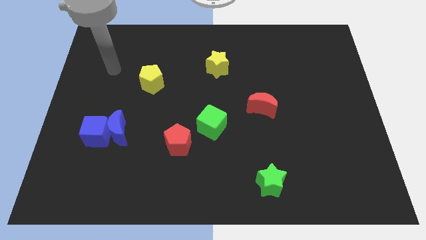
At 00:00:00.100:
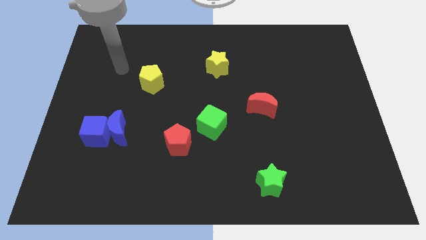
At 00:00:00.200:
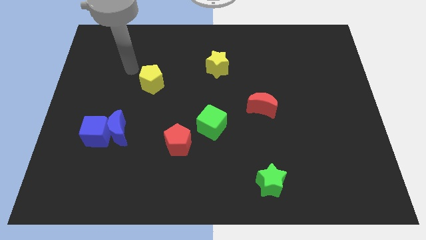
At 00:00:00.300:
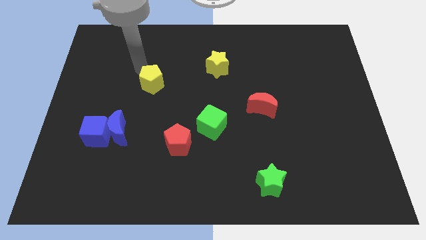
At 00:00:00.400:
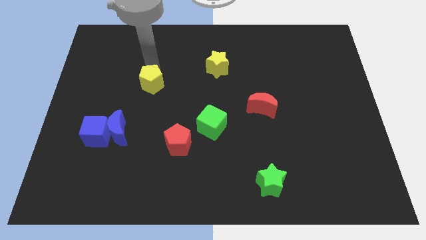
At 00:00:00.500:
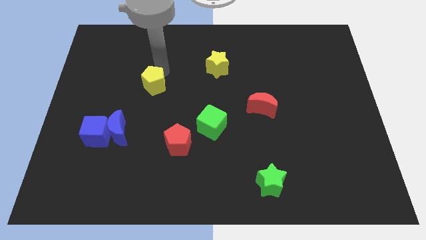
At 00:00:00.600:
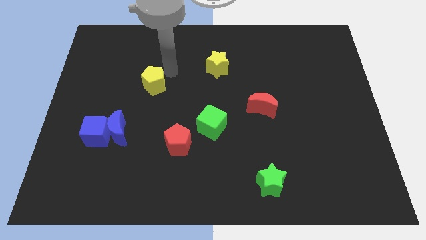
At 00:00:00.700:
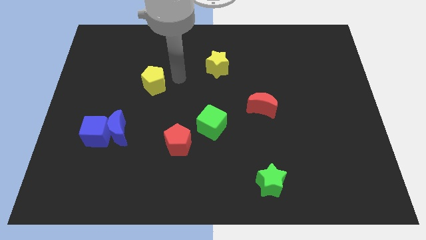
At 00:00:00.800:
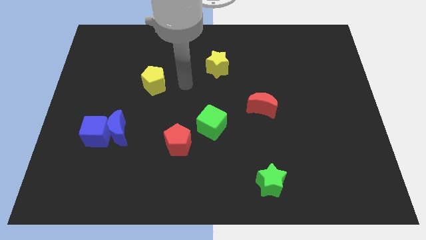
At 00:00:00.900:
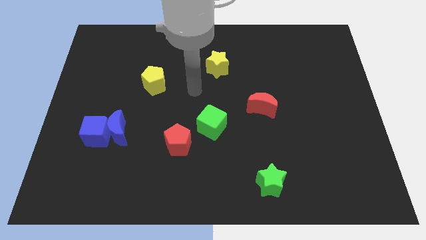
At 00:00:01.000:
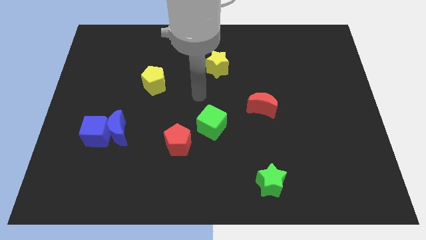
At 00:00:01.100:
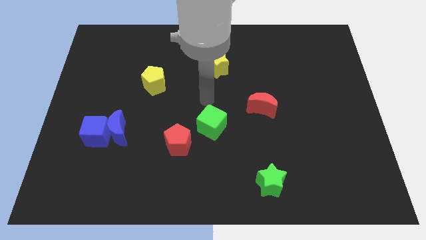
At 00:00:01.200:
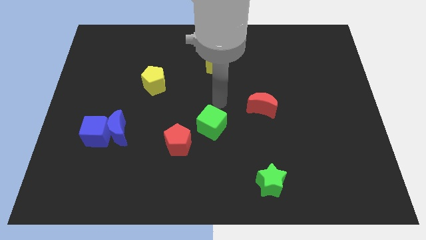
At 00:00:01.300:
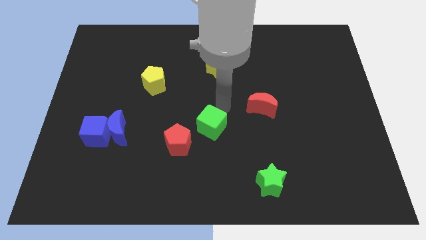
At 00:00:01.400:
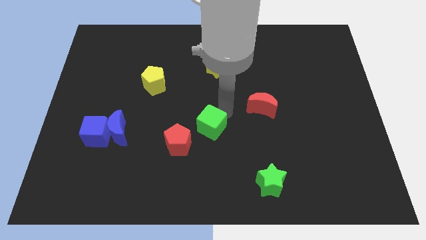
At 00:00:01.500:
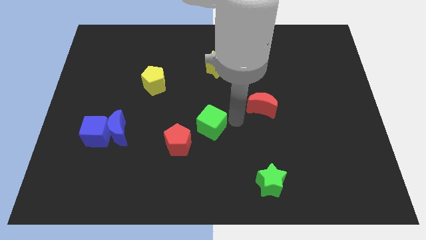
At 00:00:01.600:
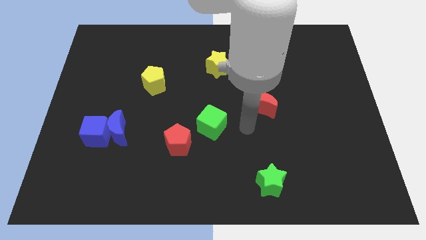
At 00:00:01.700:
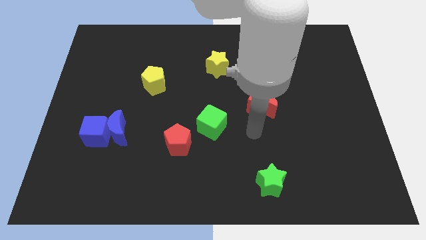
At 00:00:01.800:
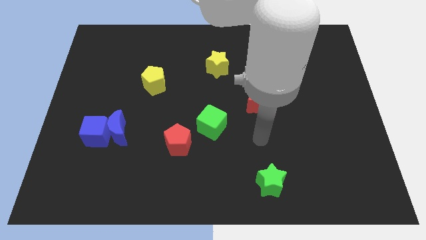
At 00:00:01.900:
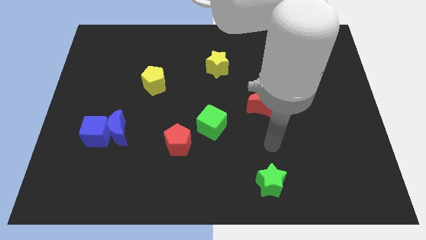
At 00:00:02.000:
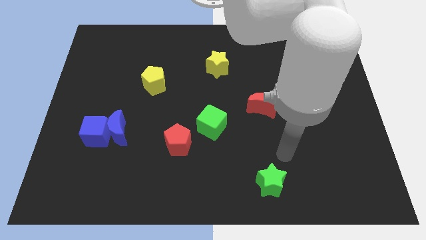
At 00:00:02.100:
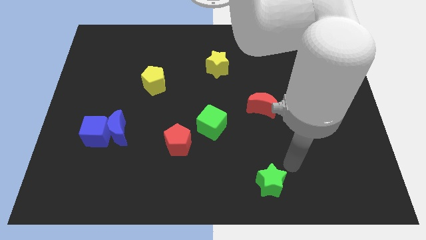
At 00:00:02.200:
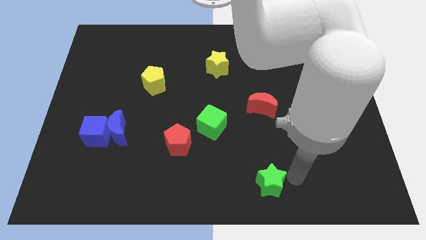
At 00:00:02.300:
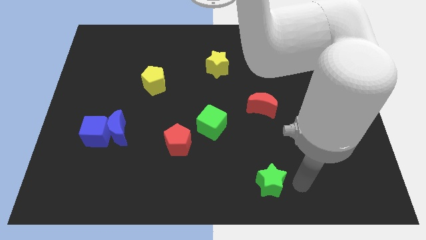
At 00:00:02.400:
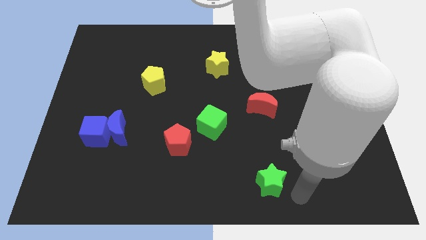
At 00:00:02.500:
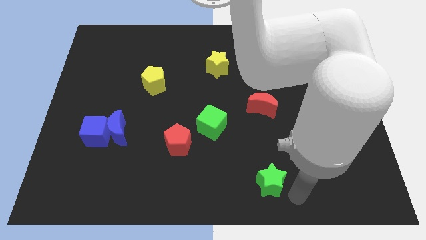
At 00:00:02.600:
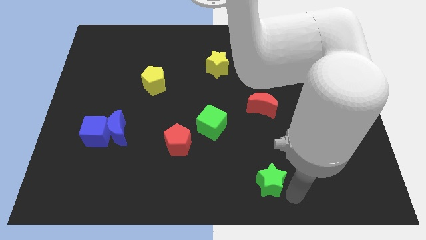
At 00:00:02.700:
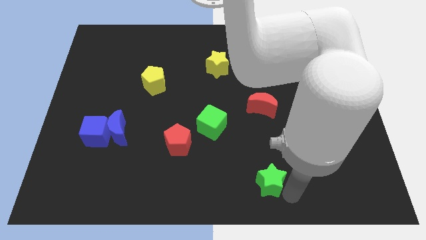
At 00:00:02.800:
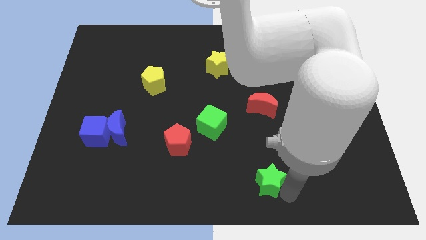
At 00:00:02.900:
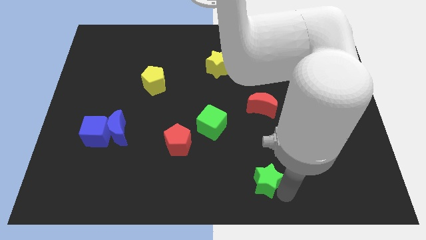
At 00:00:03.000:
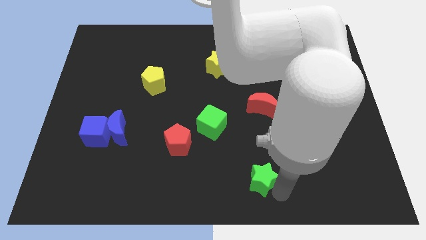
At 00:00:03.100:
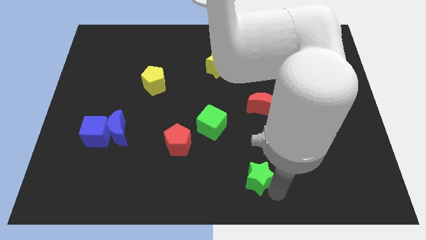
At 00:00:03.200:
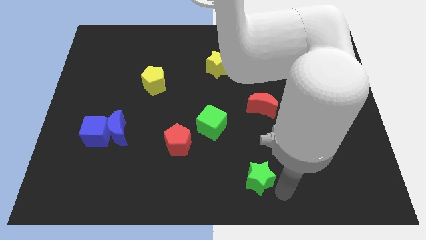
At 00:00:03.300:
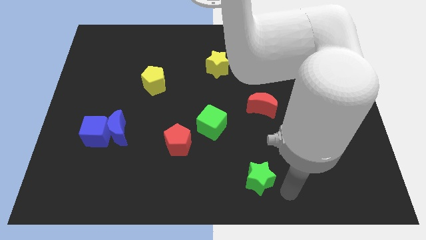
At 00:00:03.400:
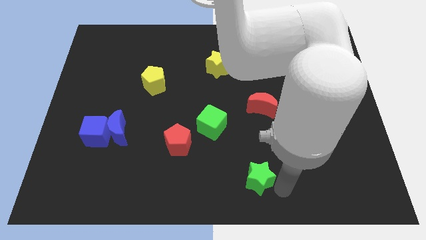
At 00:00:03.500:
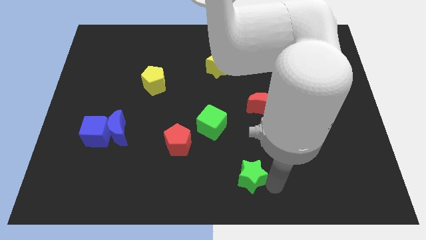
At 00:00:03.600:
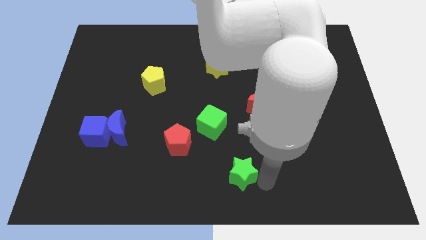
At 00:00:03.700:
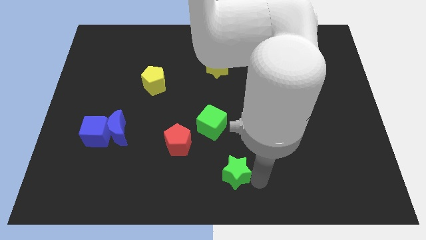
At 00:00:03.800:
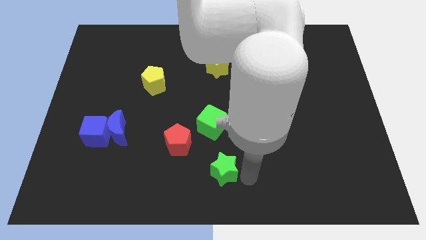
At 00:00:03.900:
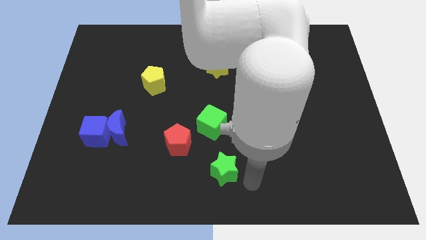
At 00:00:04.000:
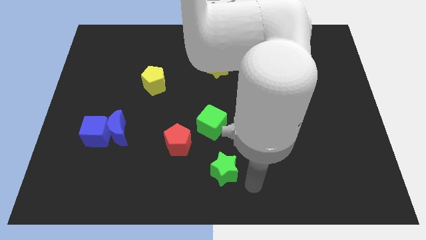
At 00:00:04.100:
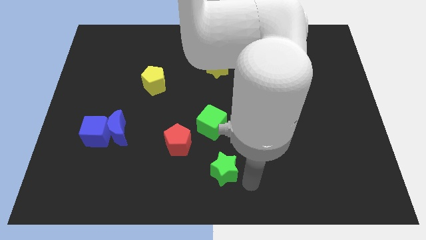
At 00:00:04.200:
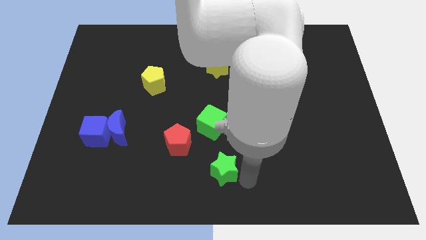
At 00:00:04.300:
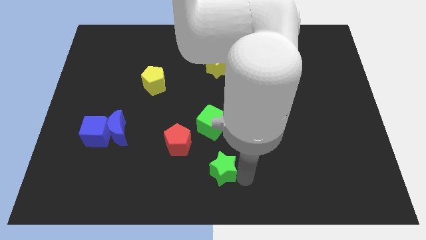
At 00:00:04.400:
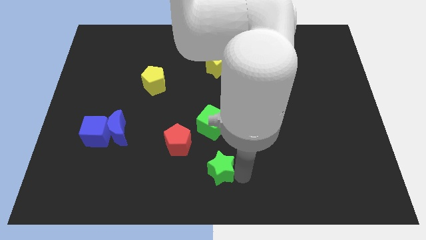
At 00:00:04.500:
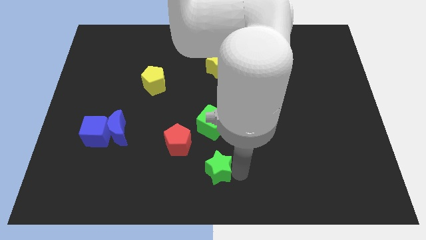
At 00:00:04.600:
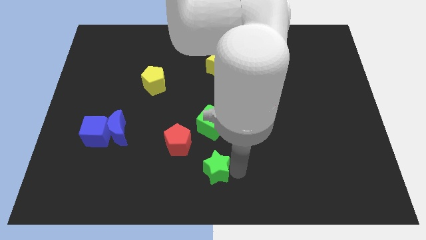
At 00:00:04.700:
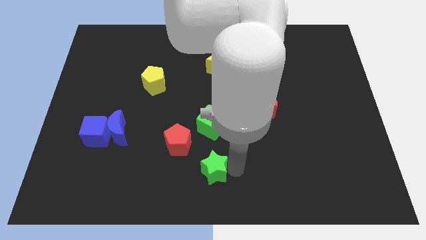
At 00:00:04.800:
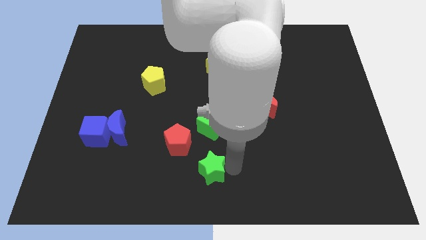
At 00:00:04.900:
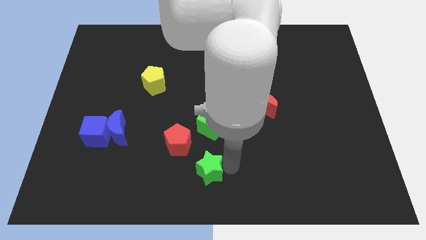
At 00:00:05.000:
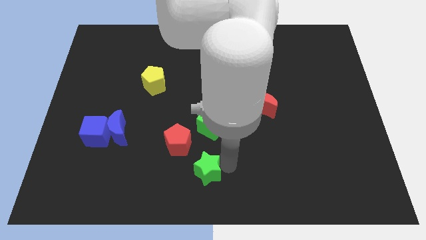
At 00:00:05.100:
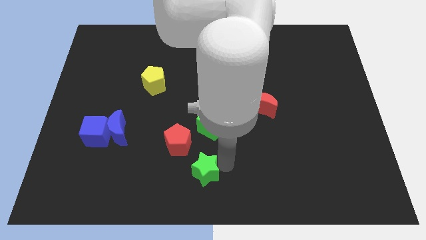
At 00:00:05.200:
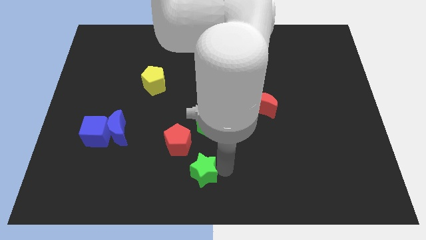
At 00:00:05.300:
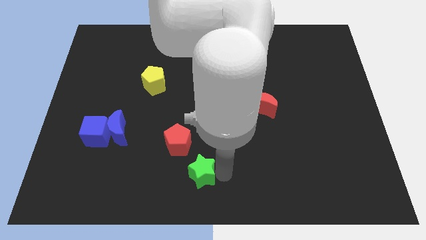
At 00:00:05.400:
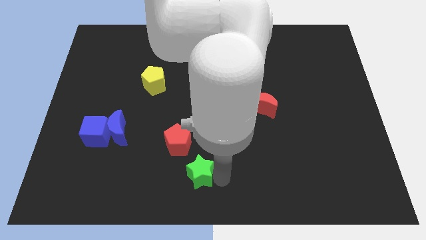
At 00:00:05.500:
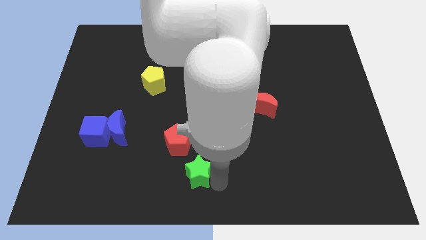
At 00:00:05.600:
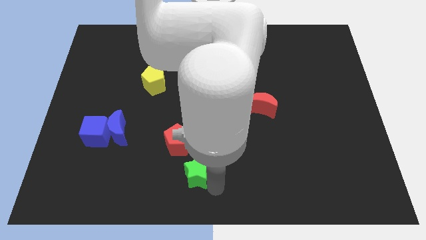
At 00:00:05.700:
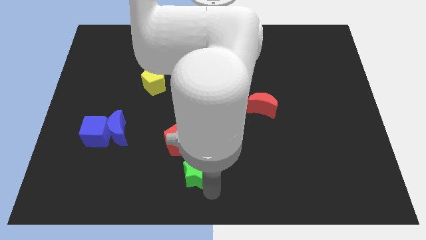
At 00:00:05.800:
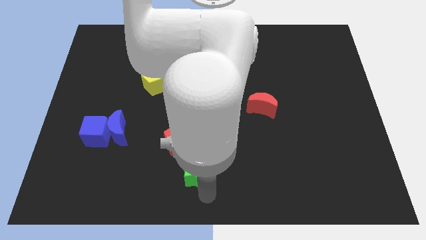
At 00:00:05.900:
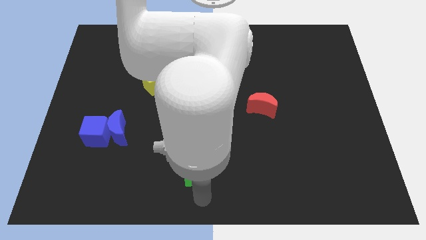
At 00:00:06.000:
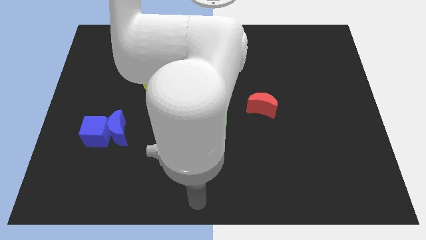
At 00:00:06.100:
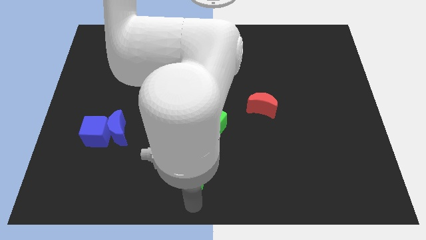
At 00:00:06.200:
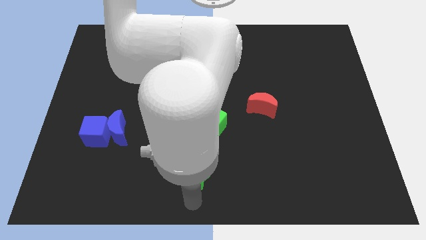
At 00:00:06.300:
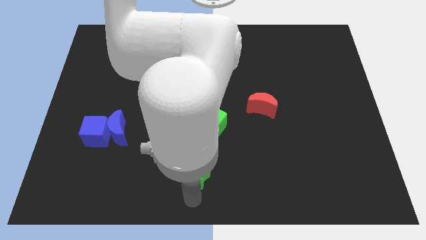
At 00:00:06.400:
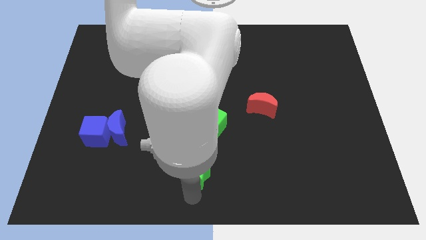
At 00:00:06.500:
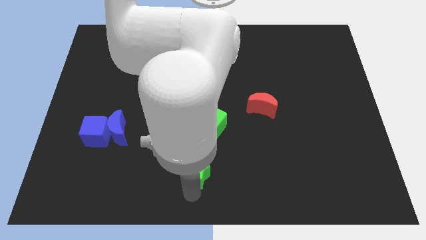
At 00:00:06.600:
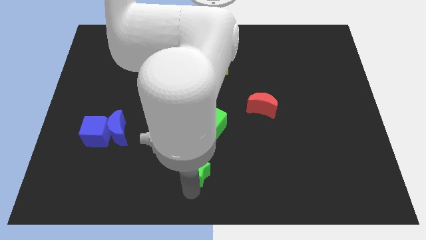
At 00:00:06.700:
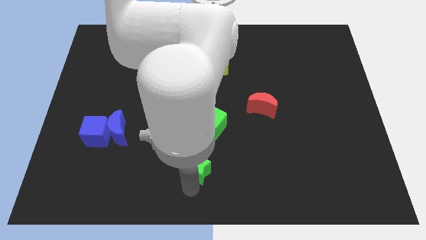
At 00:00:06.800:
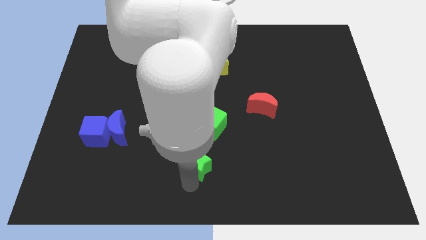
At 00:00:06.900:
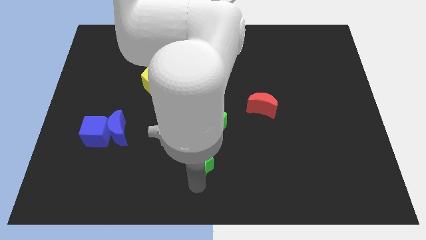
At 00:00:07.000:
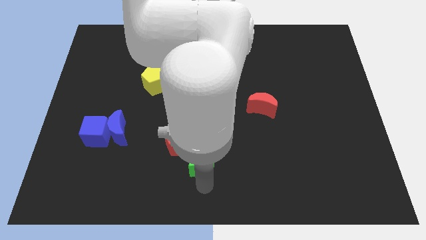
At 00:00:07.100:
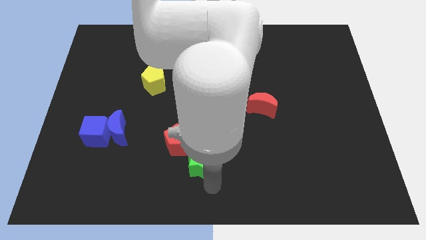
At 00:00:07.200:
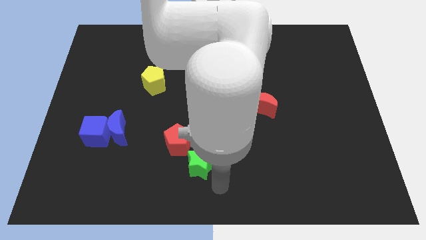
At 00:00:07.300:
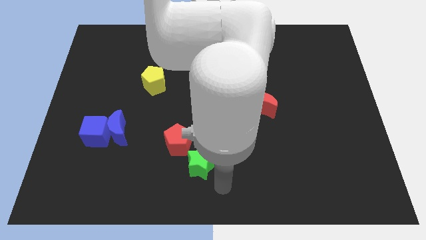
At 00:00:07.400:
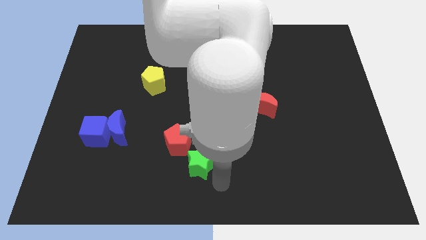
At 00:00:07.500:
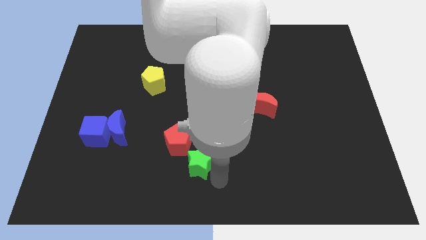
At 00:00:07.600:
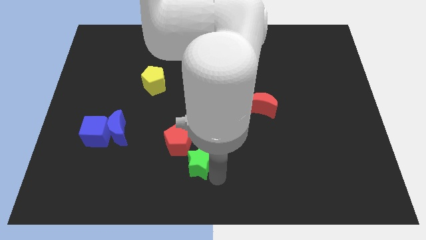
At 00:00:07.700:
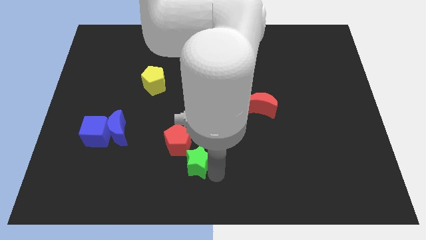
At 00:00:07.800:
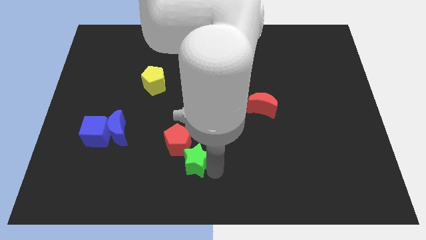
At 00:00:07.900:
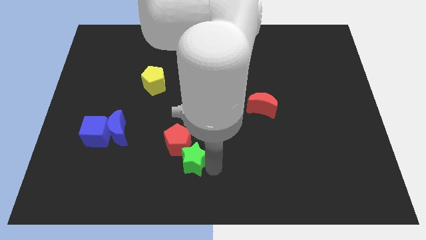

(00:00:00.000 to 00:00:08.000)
slide the green star towards the red pentagon
